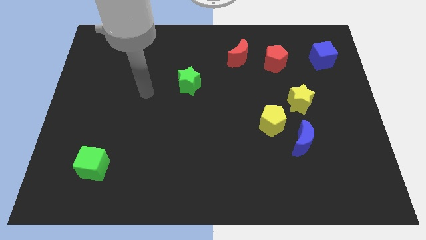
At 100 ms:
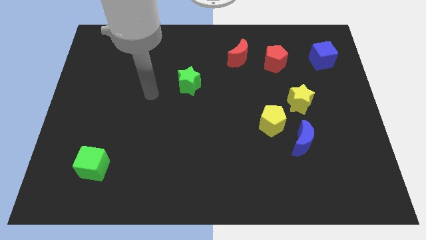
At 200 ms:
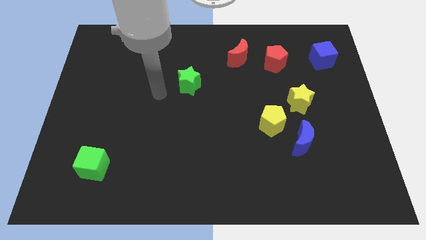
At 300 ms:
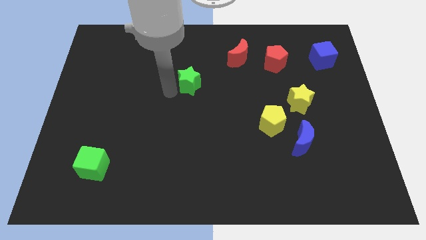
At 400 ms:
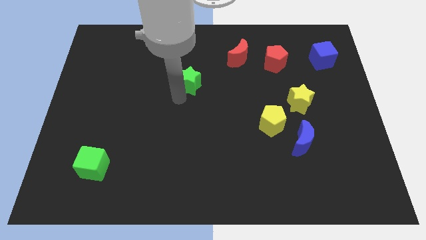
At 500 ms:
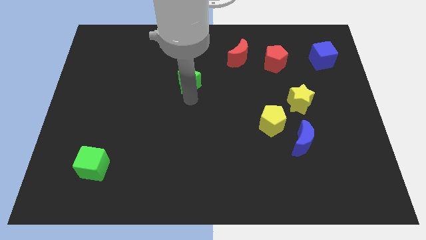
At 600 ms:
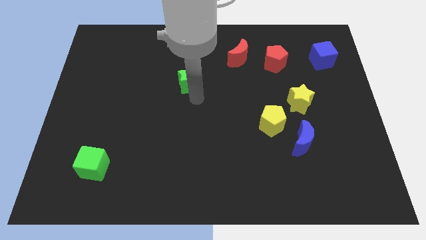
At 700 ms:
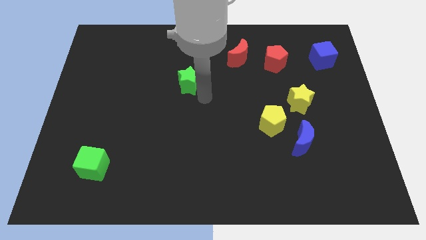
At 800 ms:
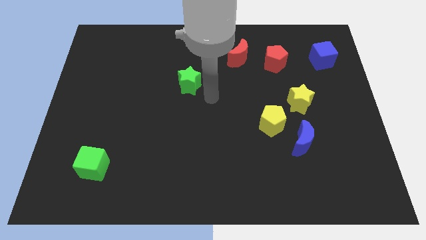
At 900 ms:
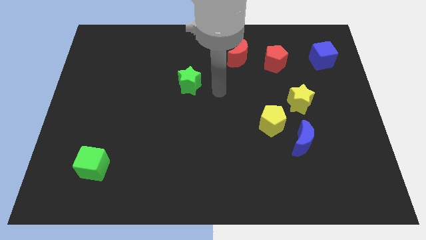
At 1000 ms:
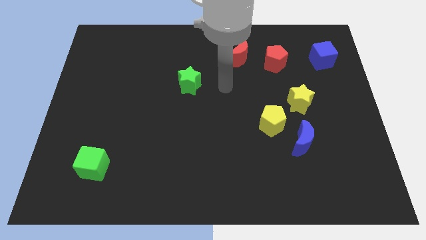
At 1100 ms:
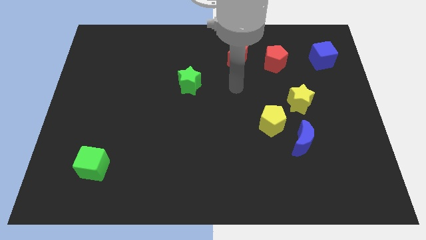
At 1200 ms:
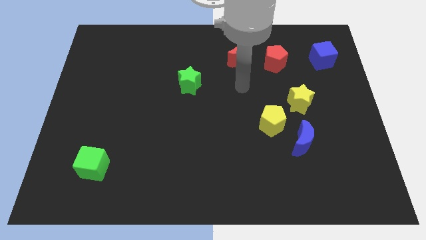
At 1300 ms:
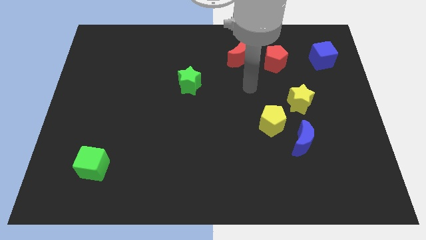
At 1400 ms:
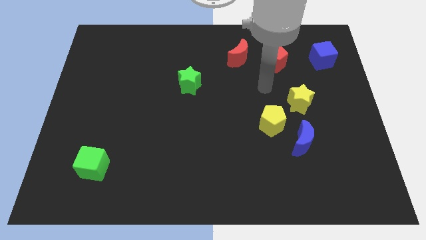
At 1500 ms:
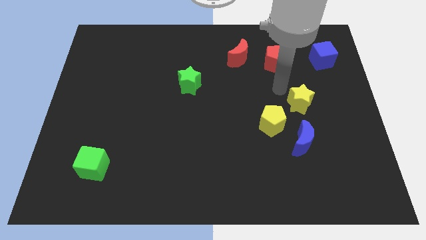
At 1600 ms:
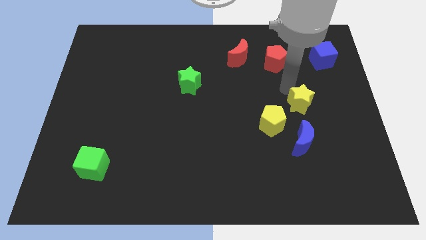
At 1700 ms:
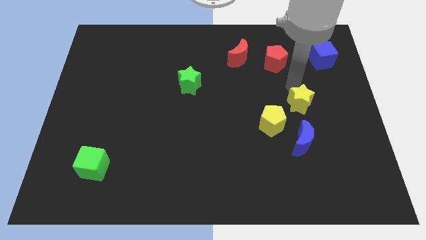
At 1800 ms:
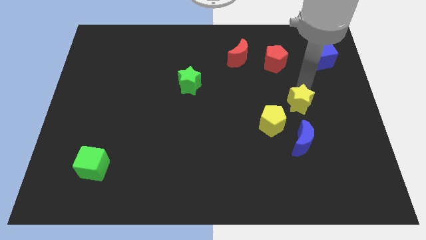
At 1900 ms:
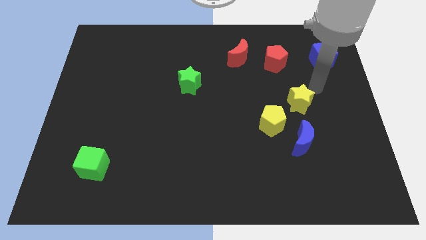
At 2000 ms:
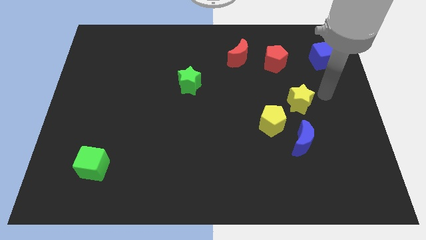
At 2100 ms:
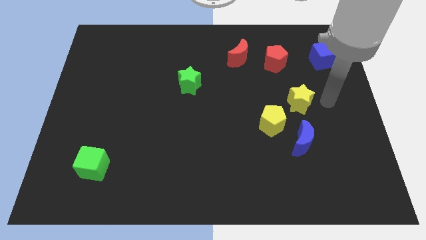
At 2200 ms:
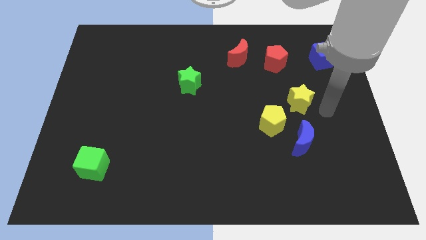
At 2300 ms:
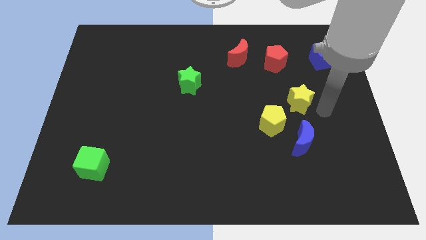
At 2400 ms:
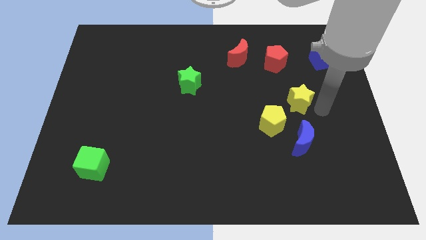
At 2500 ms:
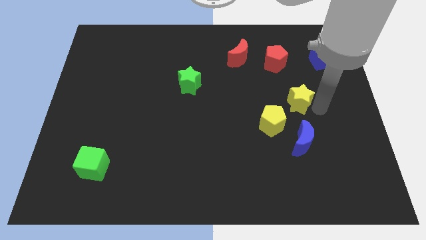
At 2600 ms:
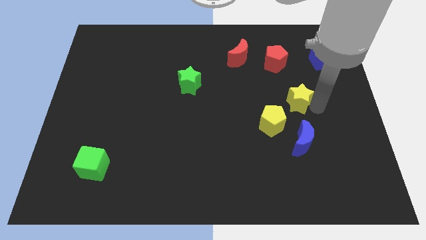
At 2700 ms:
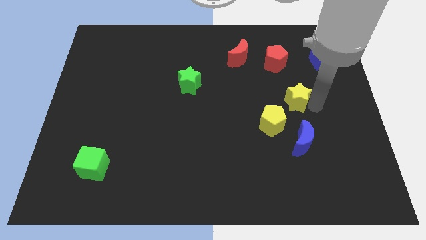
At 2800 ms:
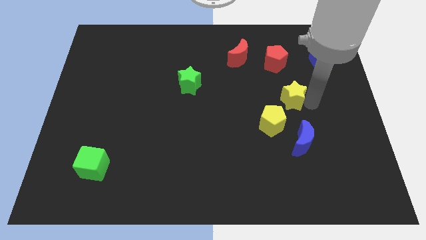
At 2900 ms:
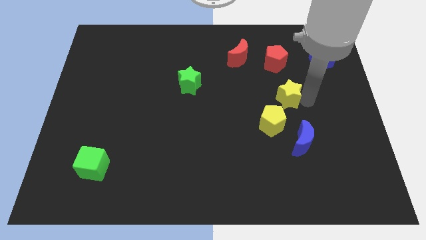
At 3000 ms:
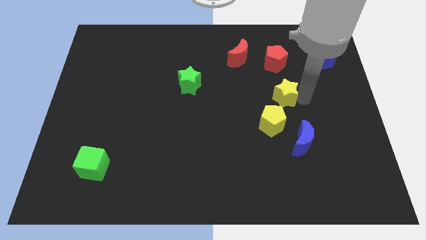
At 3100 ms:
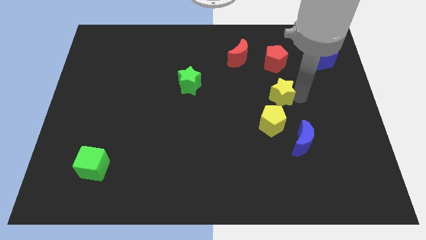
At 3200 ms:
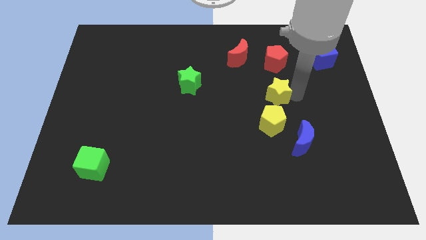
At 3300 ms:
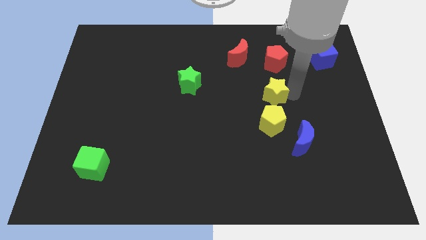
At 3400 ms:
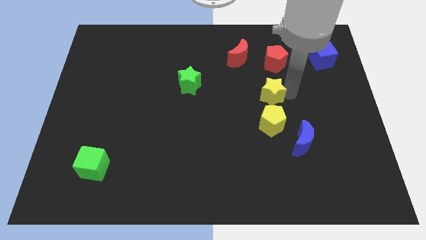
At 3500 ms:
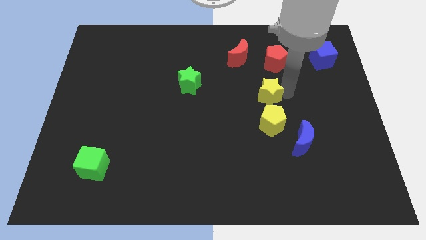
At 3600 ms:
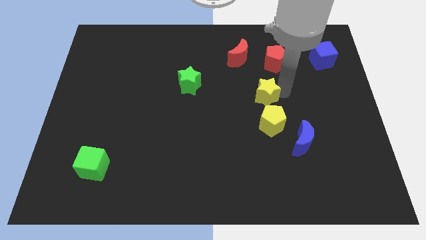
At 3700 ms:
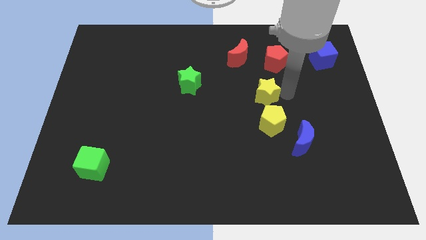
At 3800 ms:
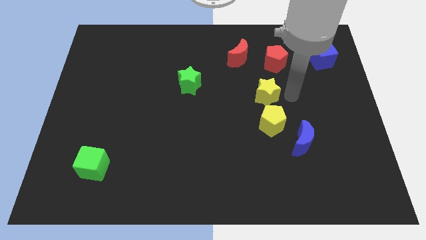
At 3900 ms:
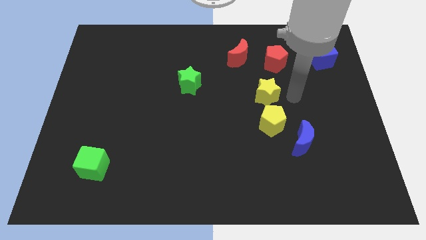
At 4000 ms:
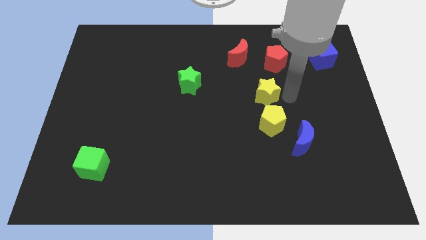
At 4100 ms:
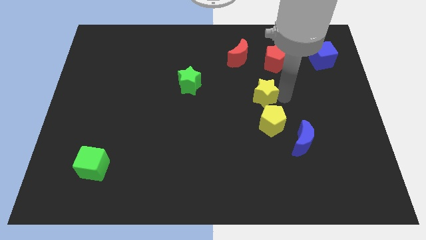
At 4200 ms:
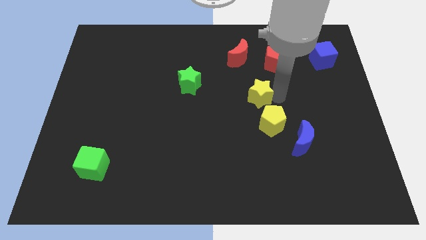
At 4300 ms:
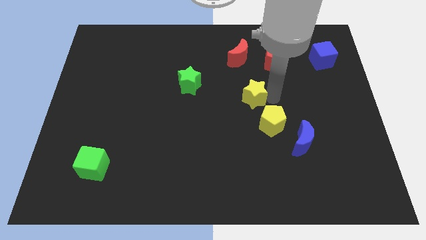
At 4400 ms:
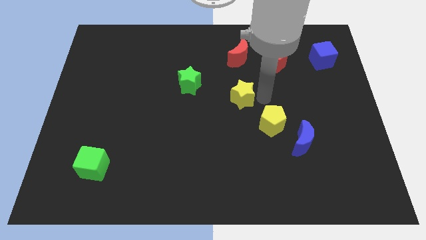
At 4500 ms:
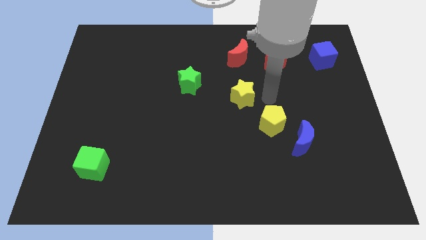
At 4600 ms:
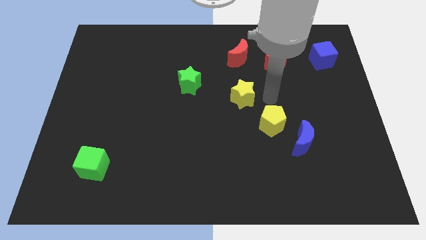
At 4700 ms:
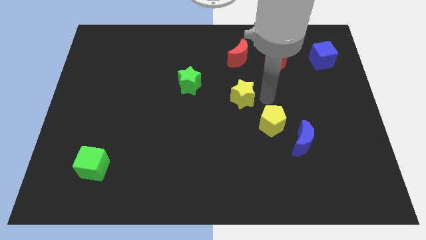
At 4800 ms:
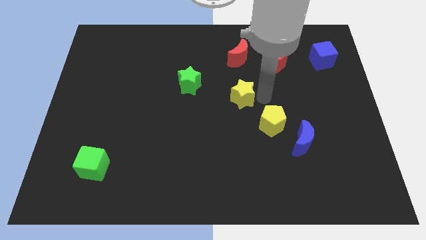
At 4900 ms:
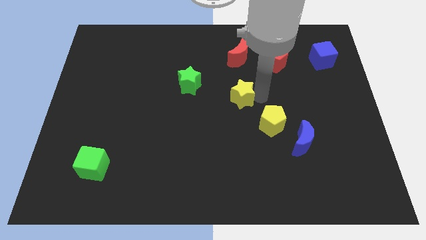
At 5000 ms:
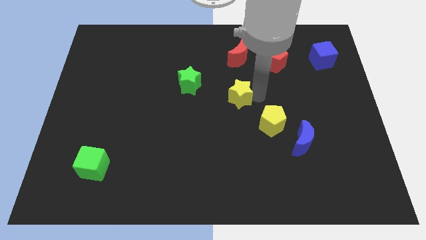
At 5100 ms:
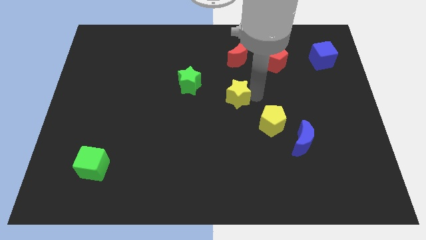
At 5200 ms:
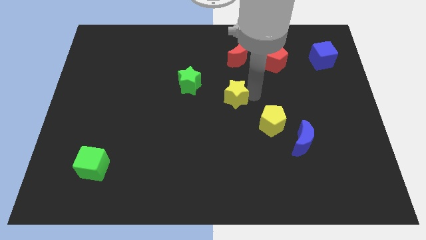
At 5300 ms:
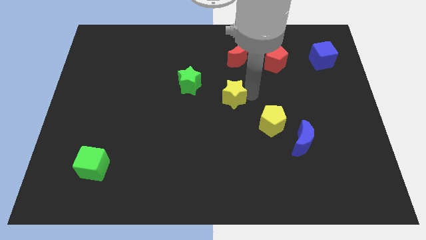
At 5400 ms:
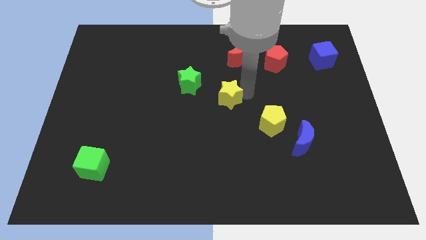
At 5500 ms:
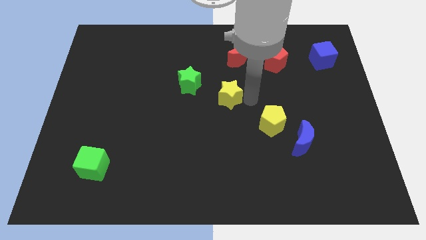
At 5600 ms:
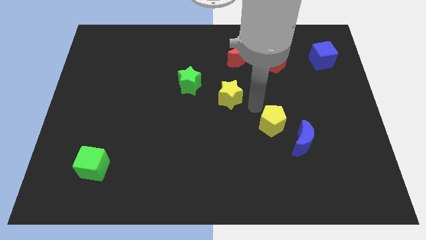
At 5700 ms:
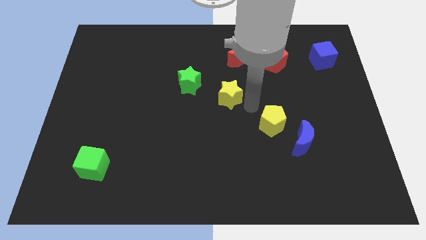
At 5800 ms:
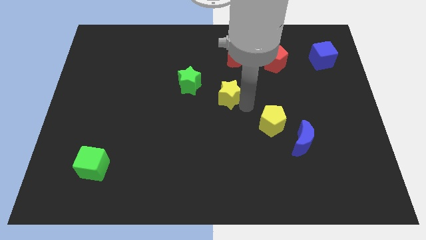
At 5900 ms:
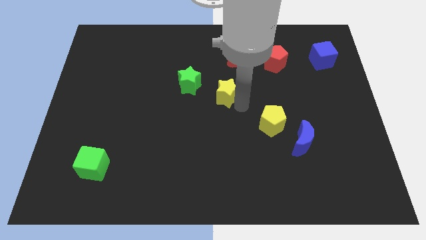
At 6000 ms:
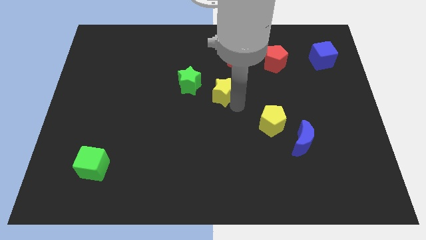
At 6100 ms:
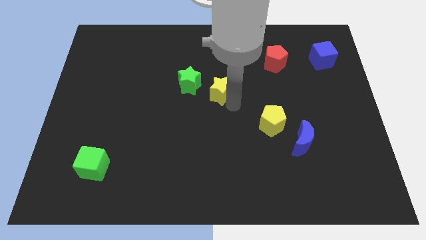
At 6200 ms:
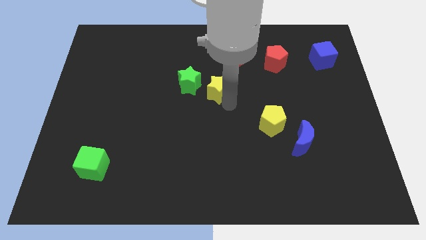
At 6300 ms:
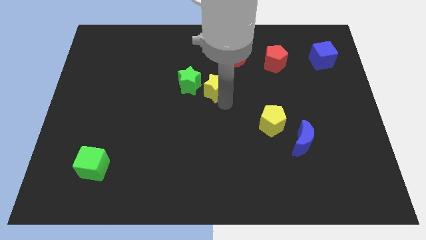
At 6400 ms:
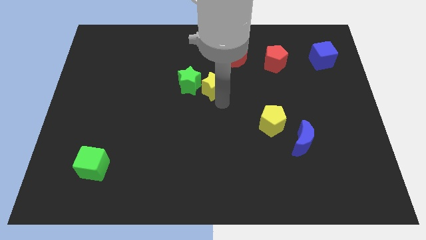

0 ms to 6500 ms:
slide the yellow star close to the green star
